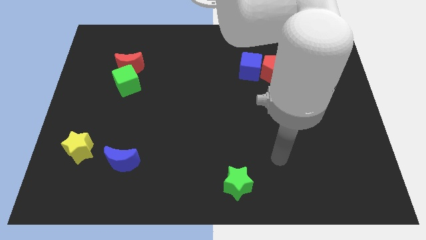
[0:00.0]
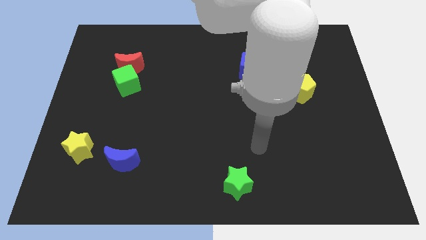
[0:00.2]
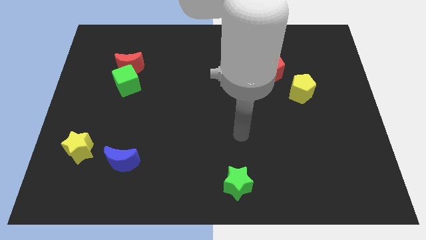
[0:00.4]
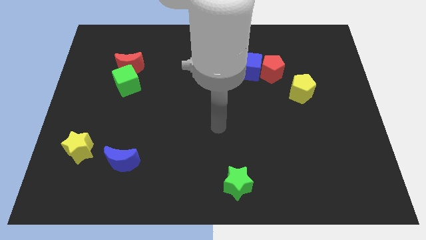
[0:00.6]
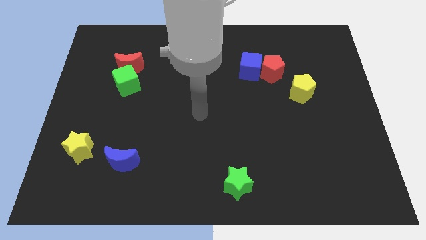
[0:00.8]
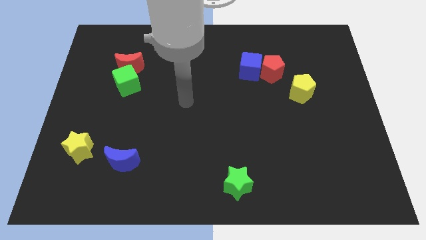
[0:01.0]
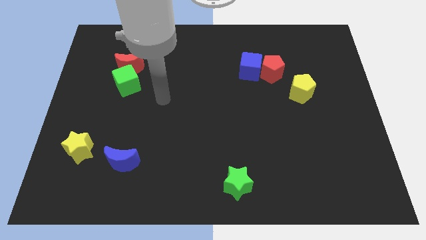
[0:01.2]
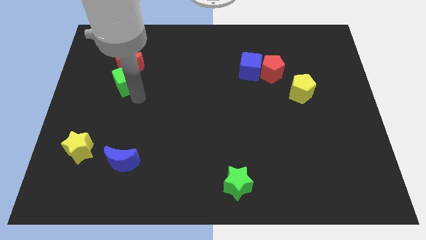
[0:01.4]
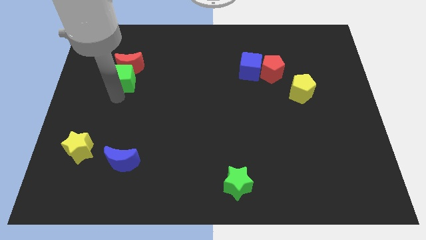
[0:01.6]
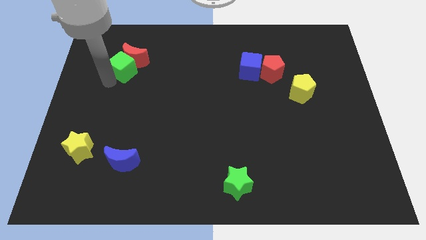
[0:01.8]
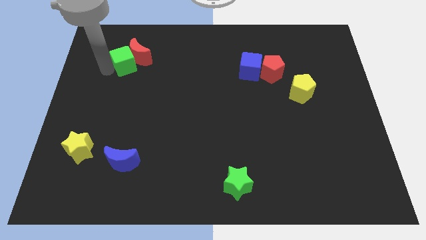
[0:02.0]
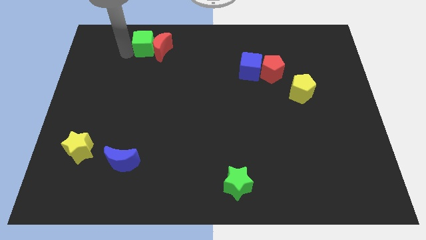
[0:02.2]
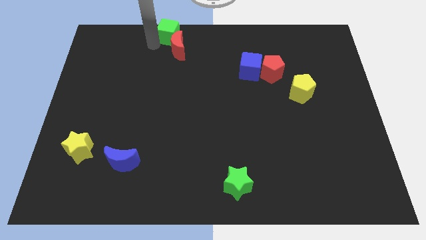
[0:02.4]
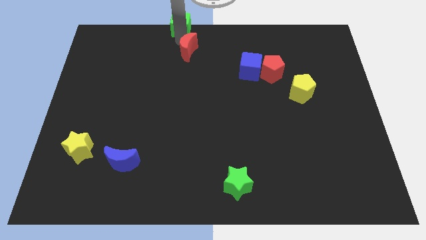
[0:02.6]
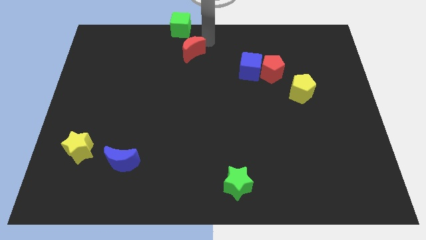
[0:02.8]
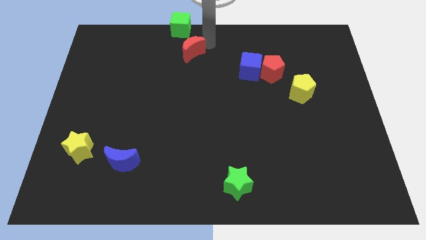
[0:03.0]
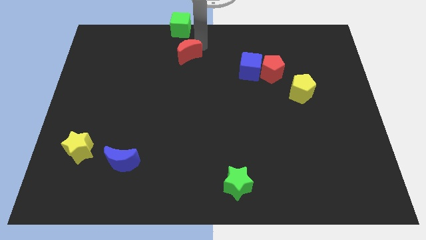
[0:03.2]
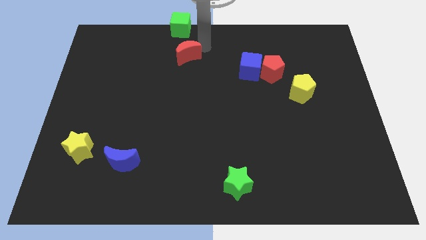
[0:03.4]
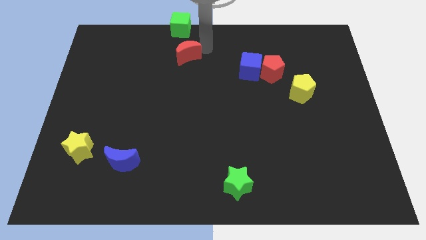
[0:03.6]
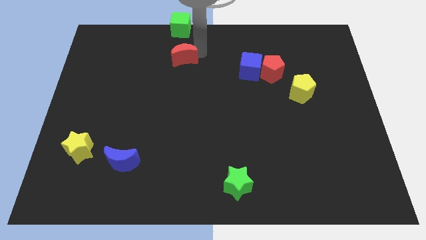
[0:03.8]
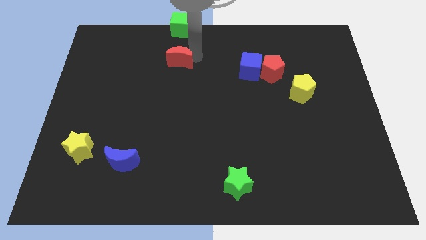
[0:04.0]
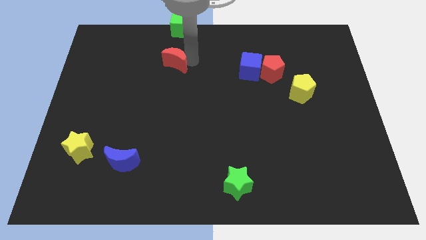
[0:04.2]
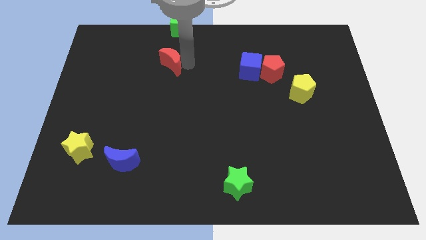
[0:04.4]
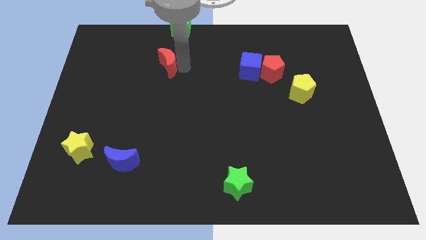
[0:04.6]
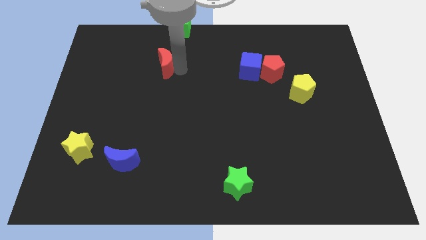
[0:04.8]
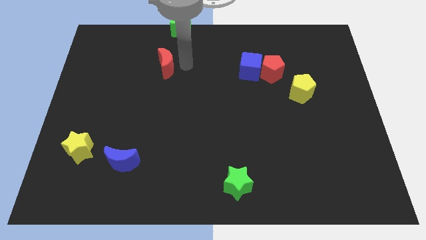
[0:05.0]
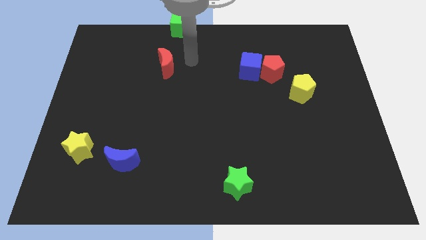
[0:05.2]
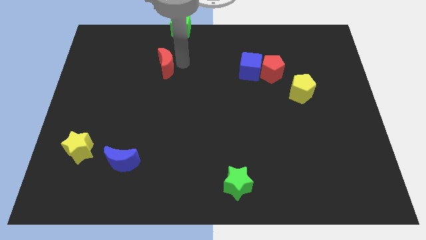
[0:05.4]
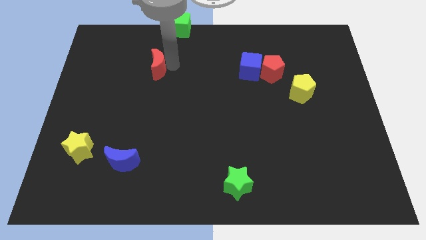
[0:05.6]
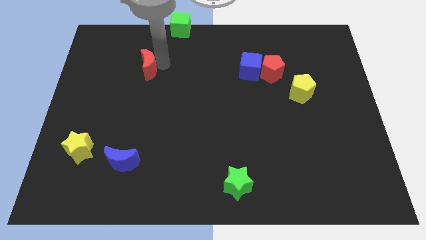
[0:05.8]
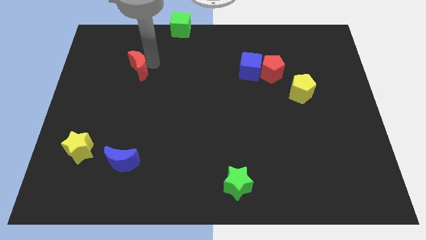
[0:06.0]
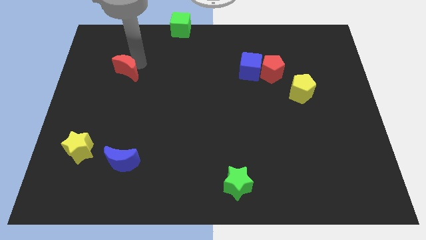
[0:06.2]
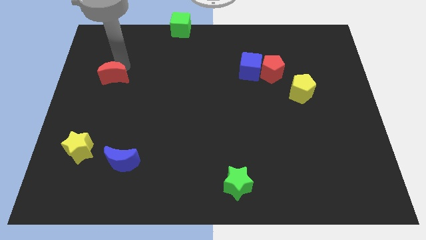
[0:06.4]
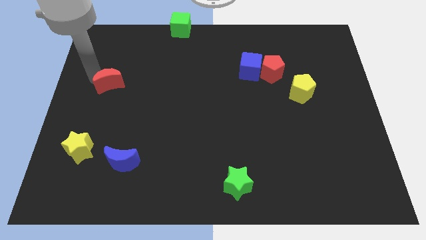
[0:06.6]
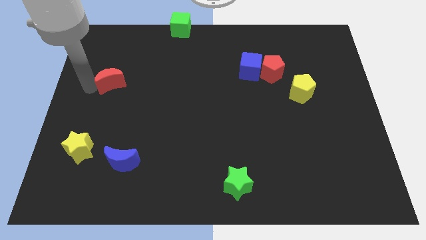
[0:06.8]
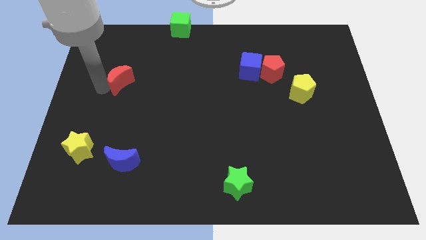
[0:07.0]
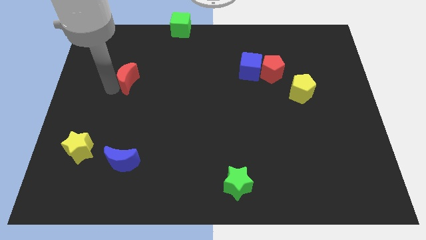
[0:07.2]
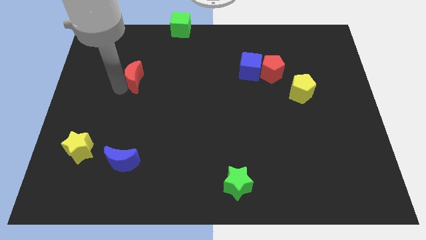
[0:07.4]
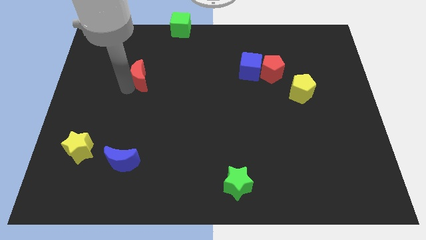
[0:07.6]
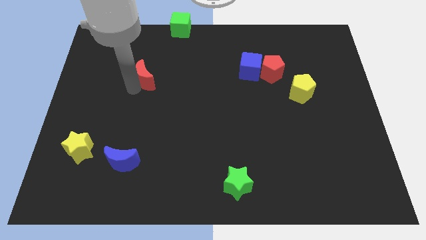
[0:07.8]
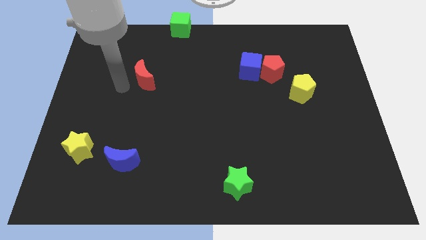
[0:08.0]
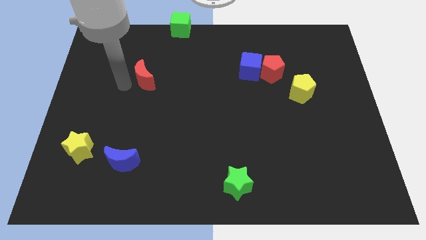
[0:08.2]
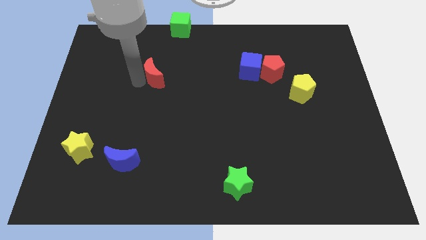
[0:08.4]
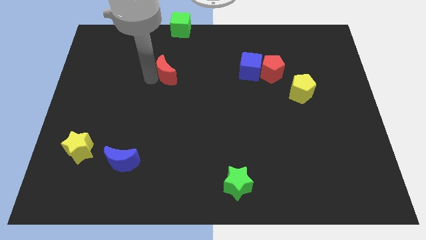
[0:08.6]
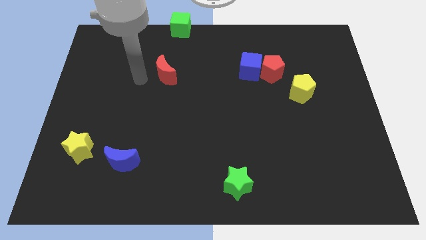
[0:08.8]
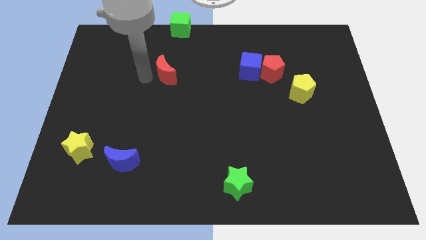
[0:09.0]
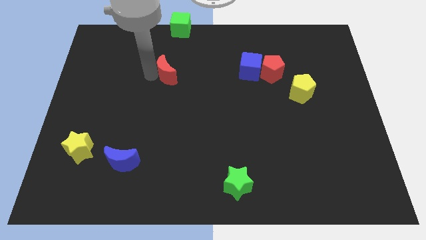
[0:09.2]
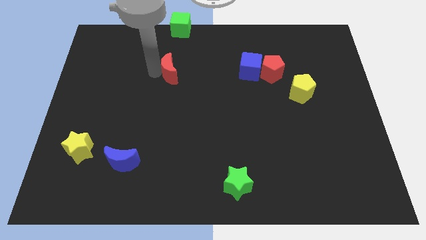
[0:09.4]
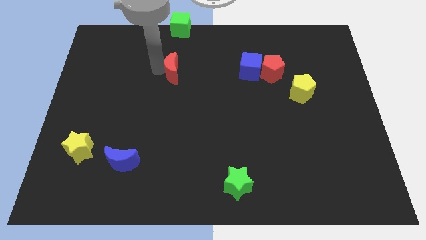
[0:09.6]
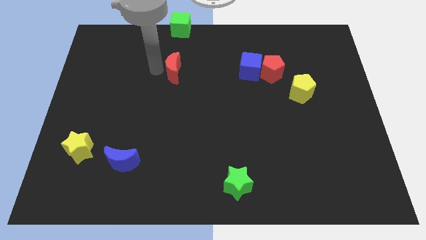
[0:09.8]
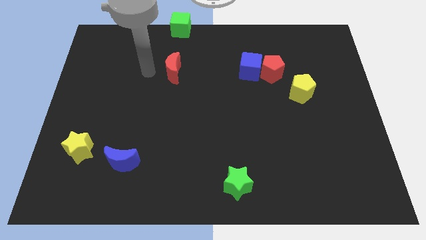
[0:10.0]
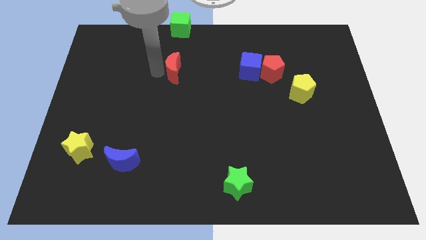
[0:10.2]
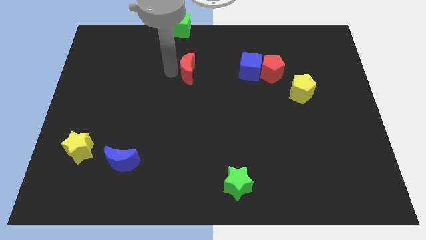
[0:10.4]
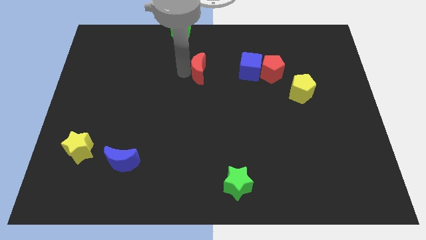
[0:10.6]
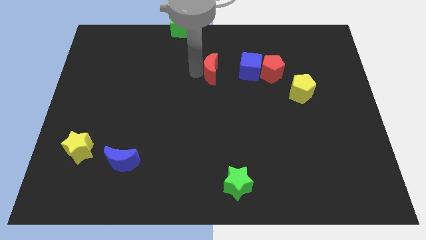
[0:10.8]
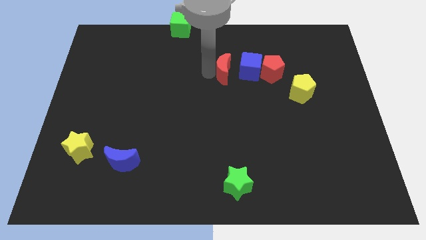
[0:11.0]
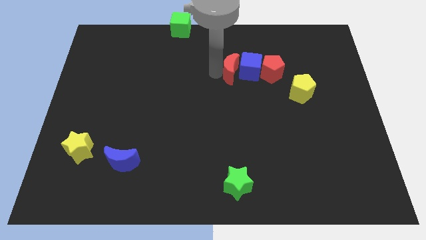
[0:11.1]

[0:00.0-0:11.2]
put the red moon to the blue cube

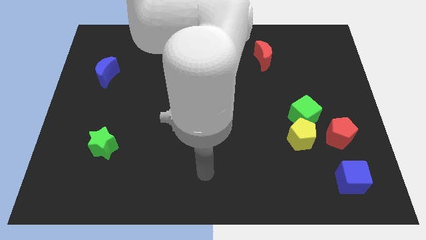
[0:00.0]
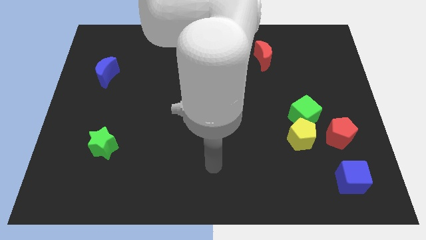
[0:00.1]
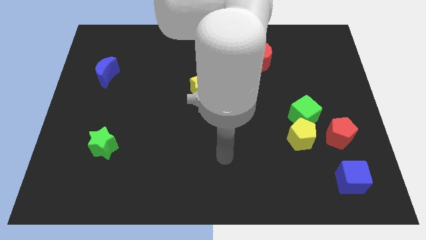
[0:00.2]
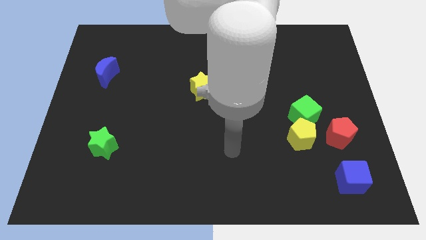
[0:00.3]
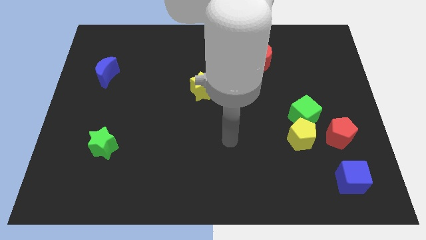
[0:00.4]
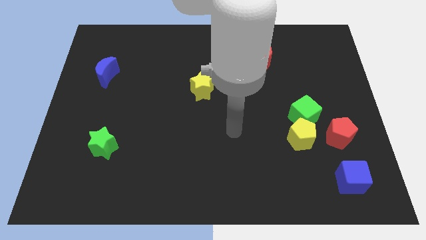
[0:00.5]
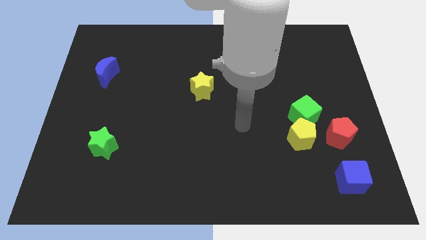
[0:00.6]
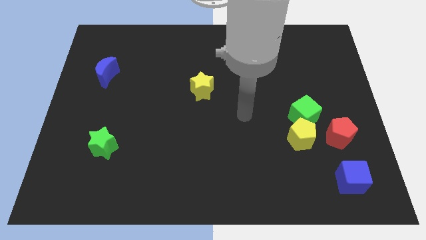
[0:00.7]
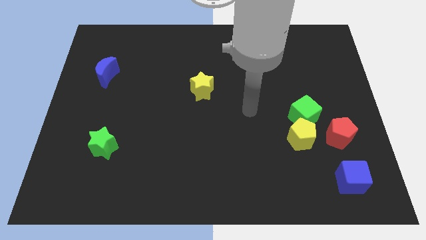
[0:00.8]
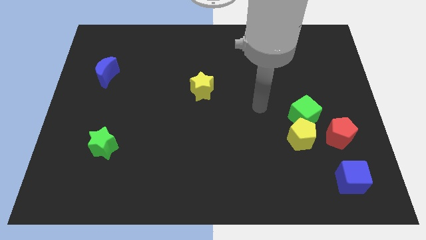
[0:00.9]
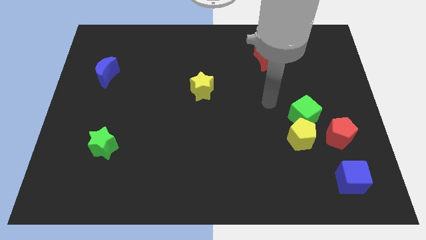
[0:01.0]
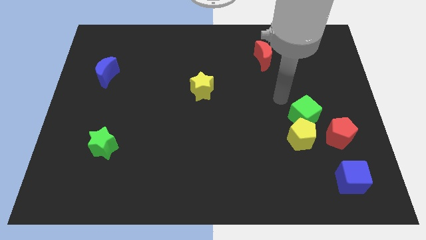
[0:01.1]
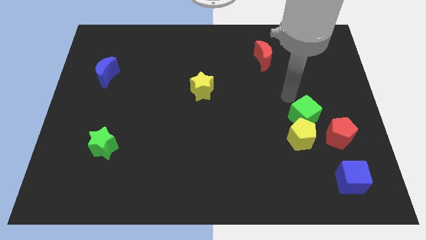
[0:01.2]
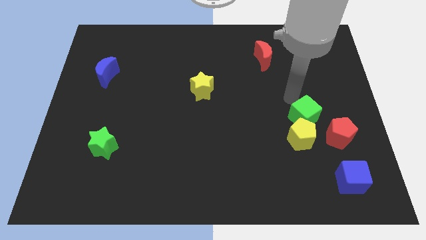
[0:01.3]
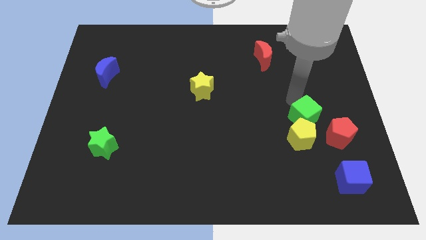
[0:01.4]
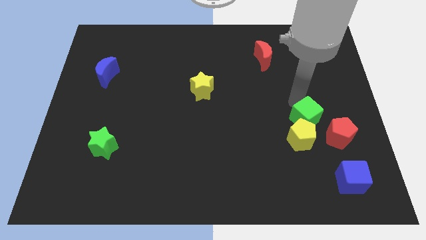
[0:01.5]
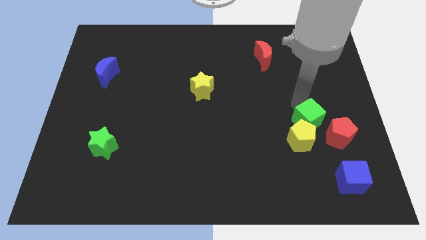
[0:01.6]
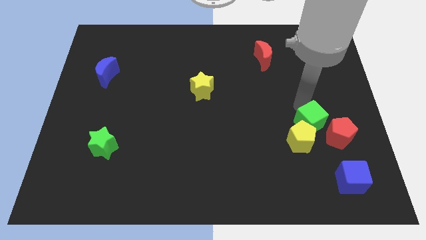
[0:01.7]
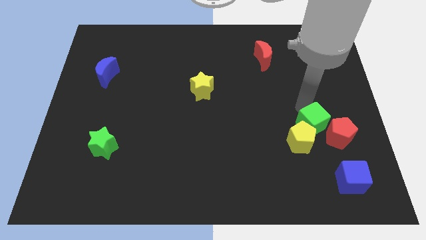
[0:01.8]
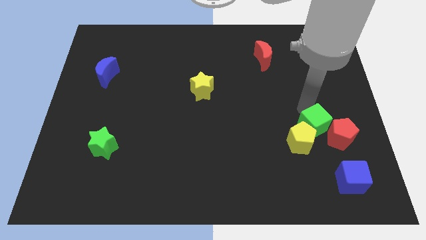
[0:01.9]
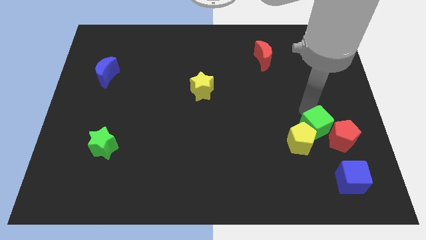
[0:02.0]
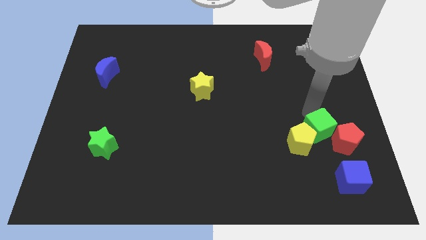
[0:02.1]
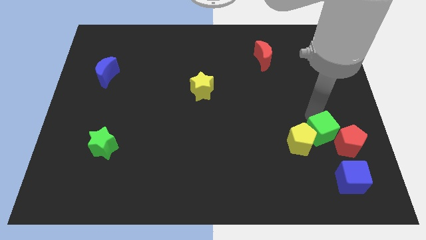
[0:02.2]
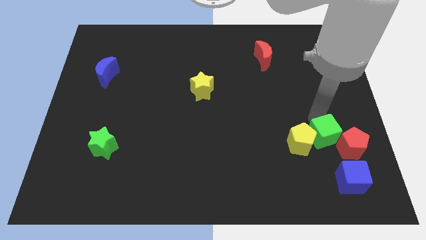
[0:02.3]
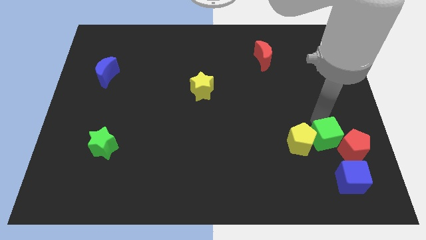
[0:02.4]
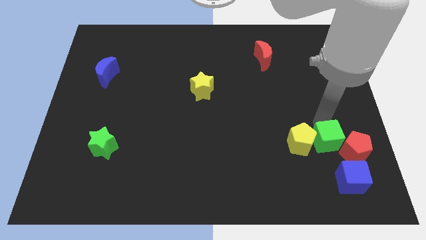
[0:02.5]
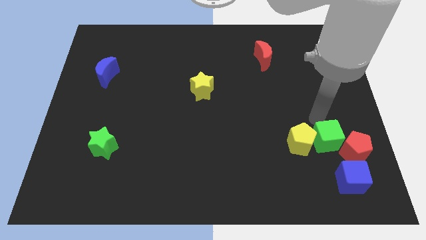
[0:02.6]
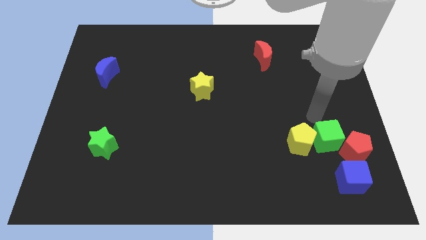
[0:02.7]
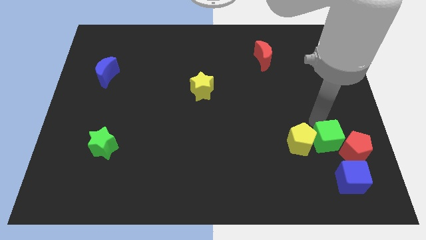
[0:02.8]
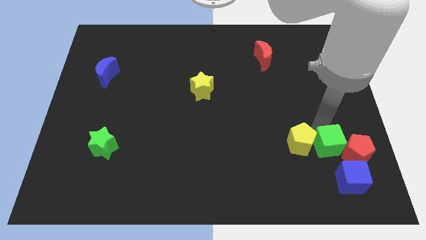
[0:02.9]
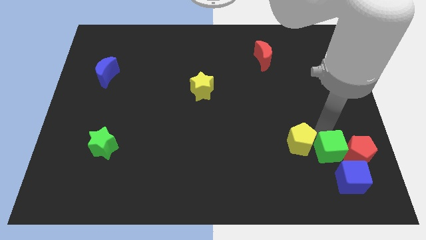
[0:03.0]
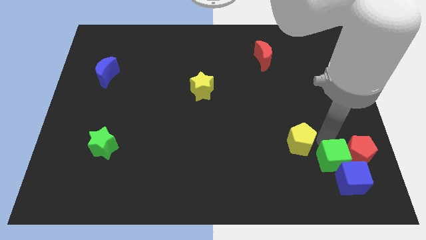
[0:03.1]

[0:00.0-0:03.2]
put the green cube close to the blue cube
